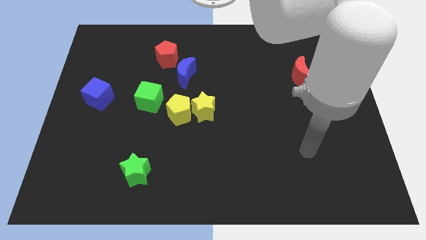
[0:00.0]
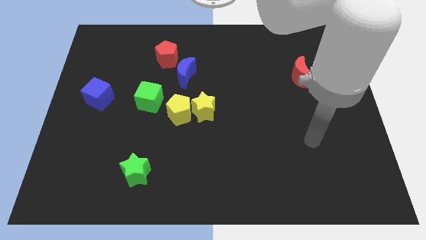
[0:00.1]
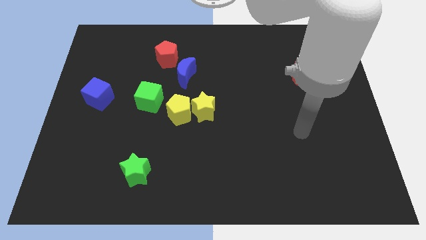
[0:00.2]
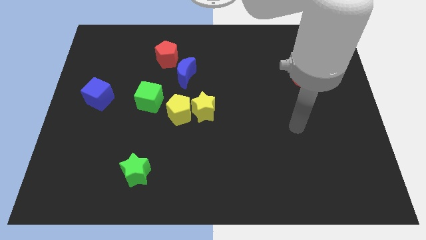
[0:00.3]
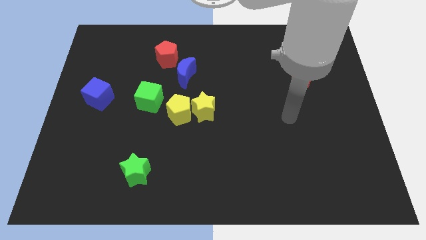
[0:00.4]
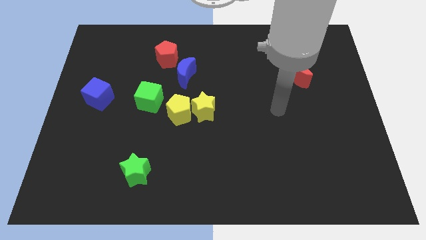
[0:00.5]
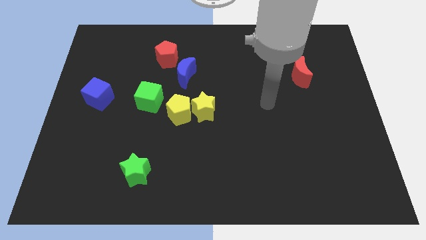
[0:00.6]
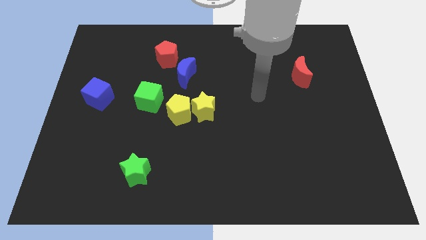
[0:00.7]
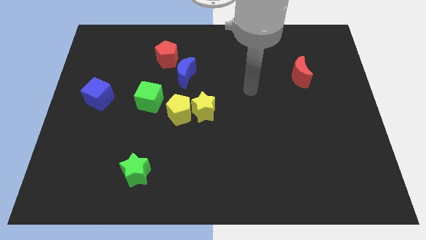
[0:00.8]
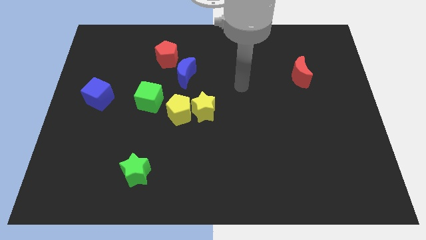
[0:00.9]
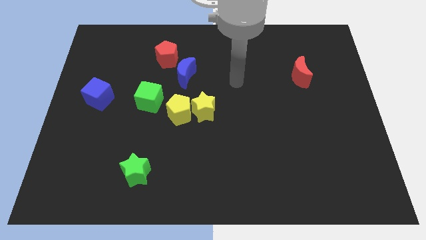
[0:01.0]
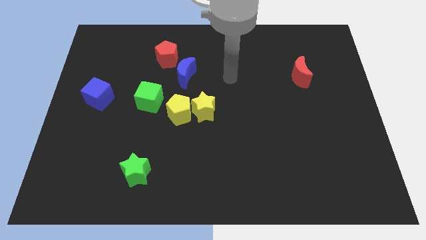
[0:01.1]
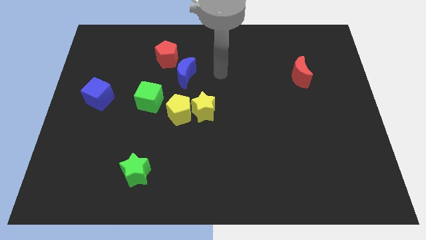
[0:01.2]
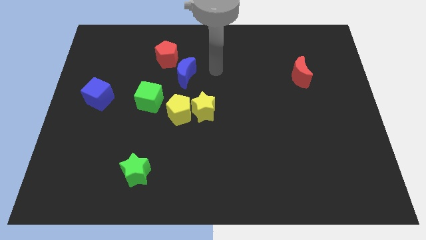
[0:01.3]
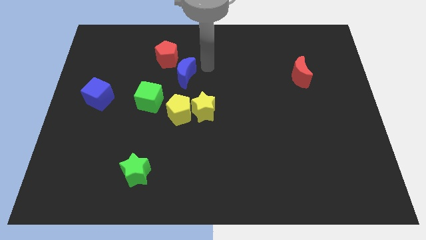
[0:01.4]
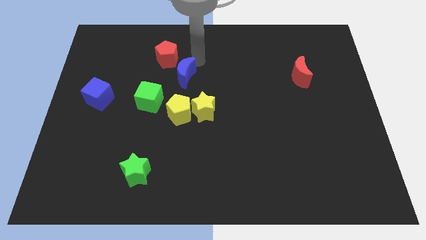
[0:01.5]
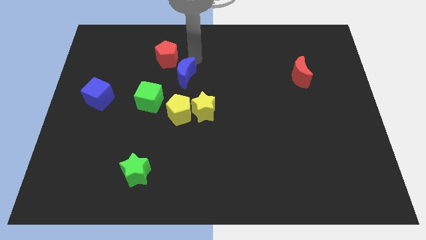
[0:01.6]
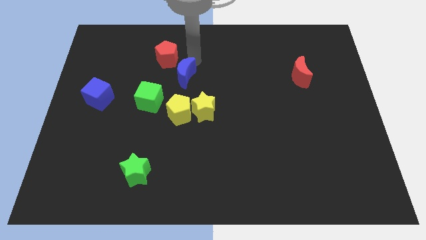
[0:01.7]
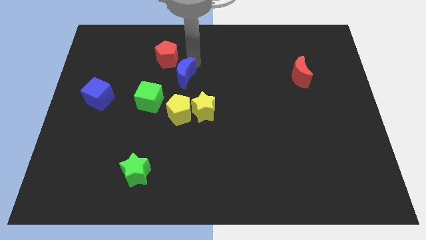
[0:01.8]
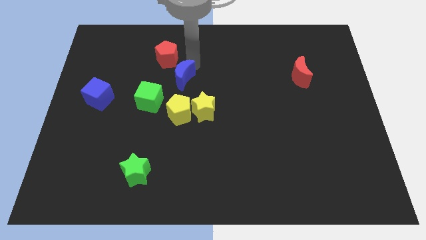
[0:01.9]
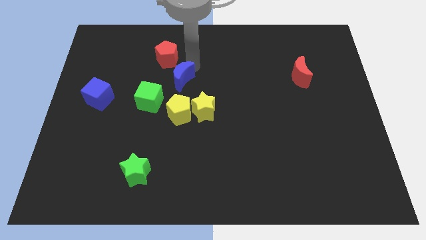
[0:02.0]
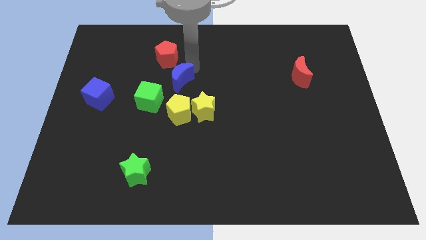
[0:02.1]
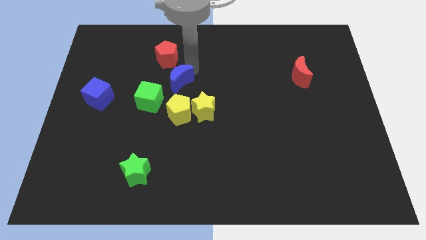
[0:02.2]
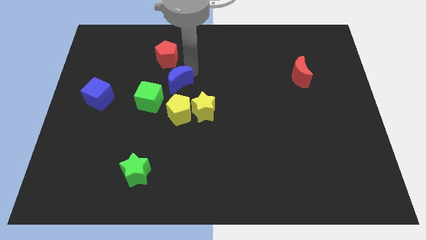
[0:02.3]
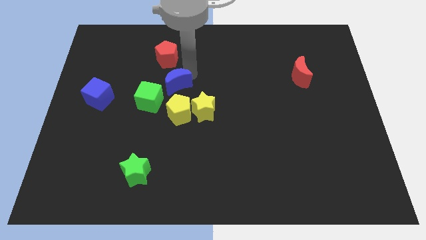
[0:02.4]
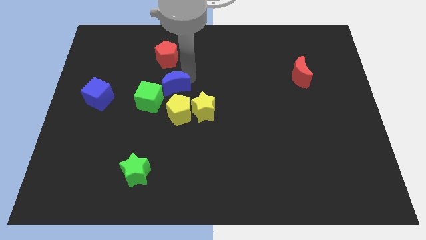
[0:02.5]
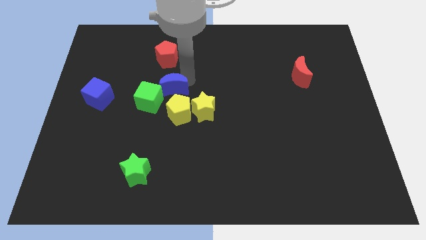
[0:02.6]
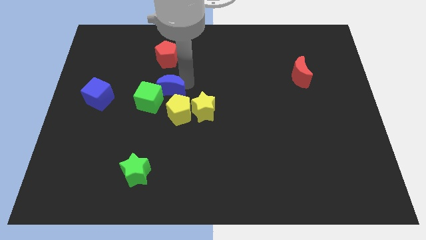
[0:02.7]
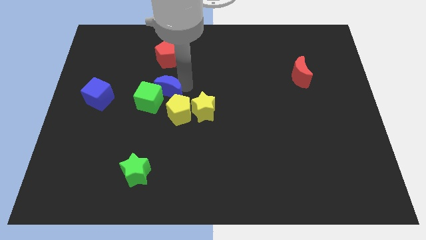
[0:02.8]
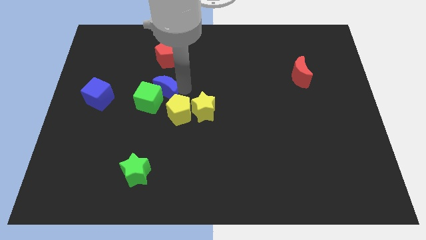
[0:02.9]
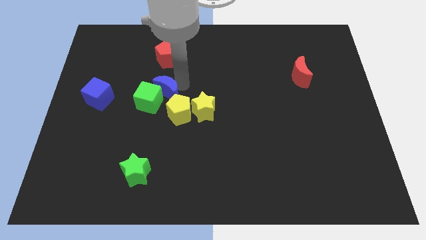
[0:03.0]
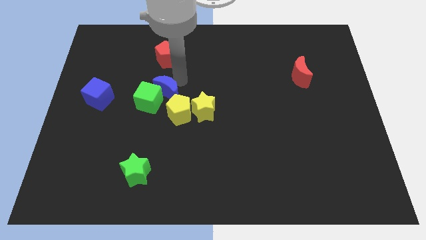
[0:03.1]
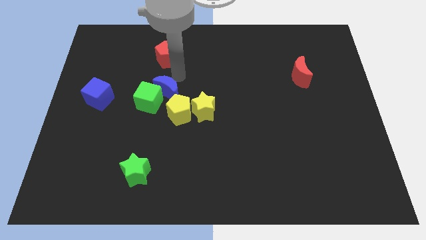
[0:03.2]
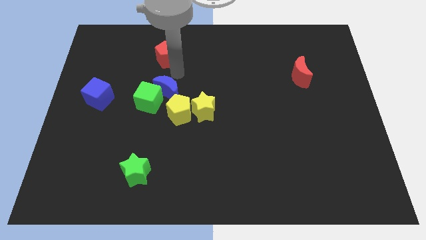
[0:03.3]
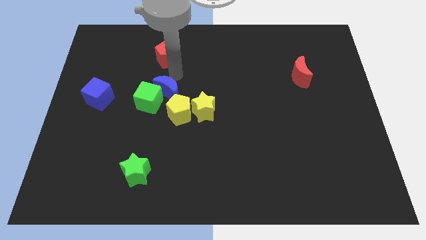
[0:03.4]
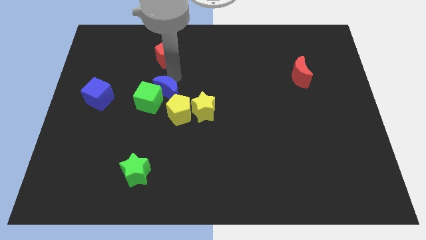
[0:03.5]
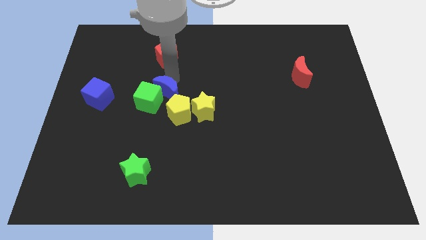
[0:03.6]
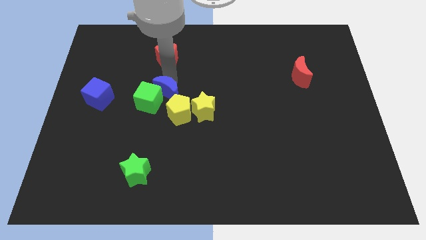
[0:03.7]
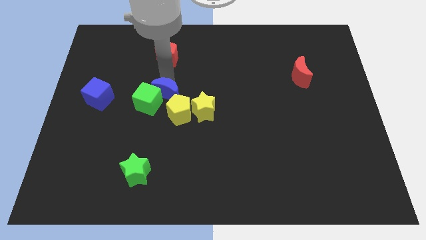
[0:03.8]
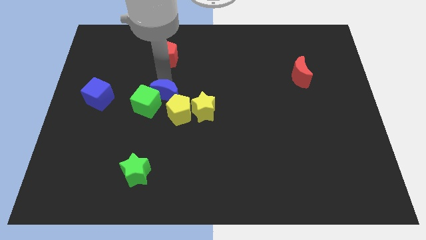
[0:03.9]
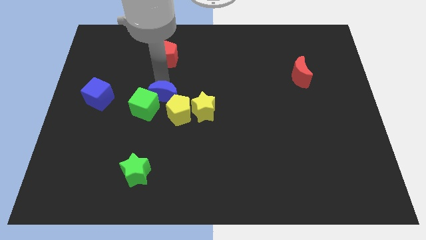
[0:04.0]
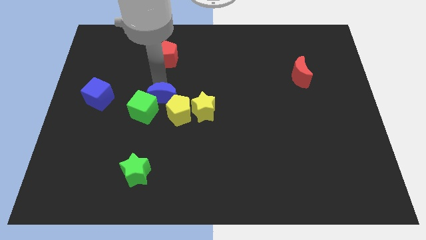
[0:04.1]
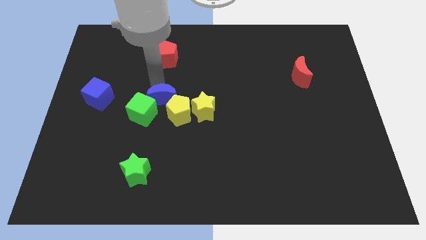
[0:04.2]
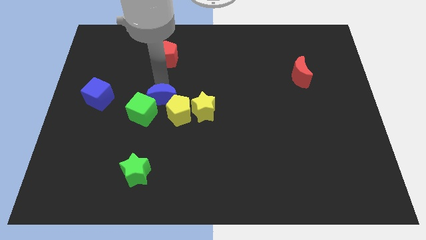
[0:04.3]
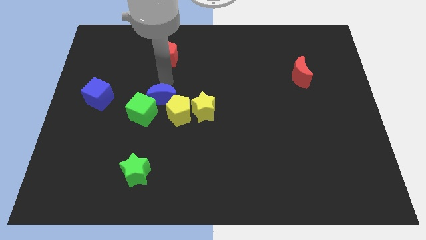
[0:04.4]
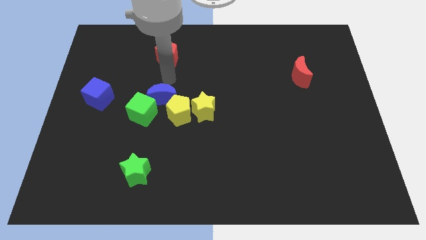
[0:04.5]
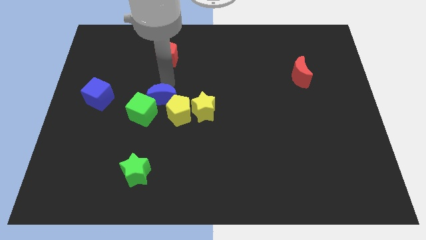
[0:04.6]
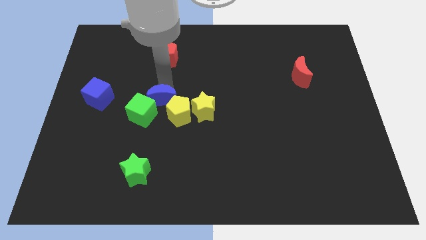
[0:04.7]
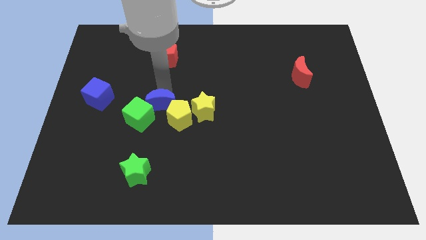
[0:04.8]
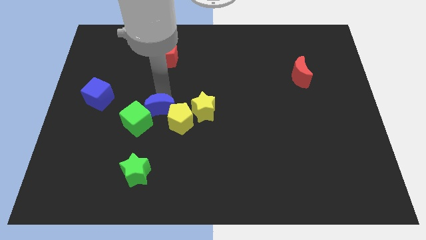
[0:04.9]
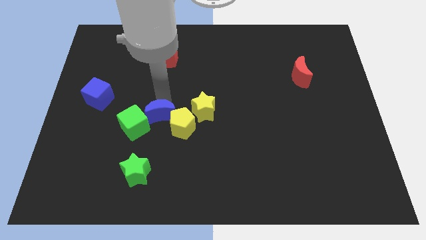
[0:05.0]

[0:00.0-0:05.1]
push the blue moon to the top of the green star

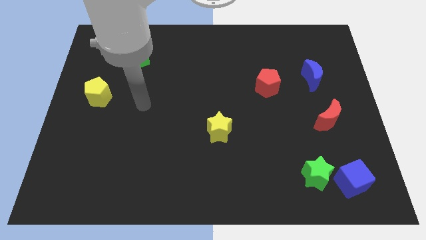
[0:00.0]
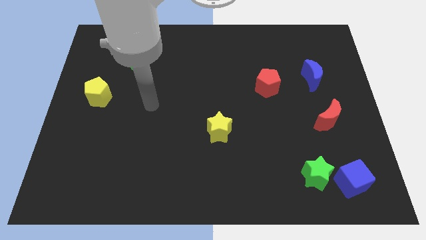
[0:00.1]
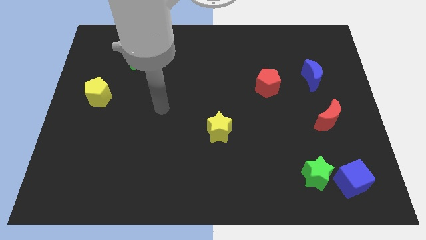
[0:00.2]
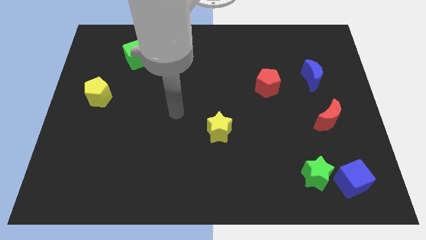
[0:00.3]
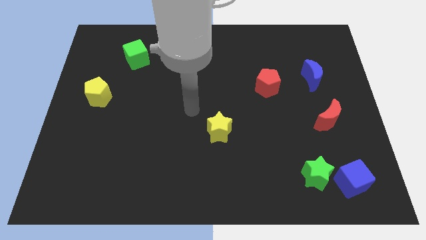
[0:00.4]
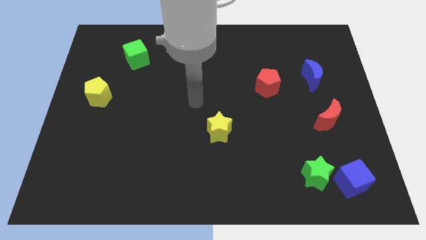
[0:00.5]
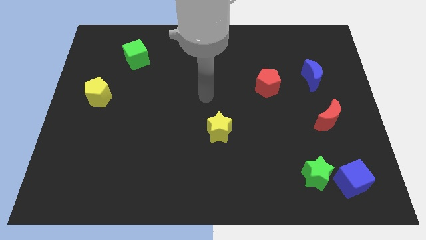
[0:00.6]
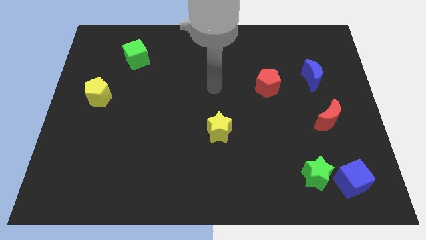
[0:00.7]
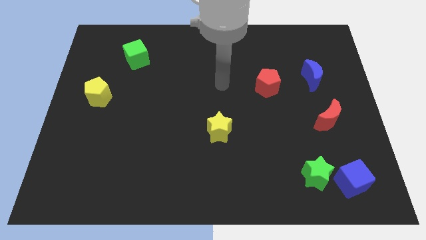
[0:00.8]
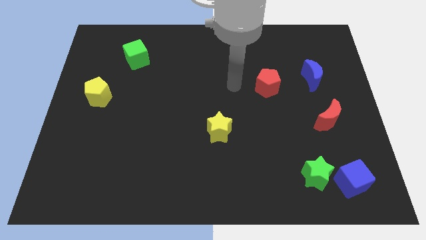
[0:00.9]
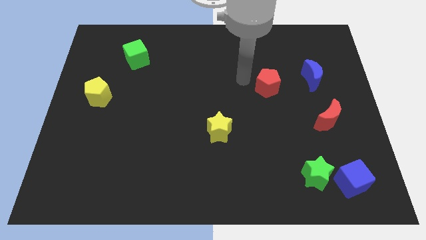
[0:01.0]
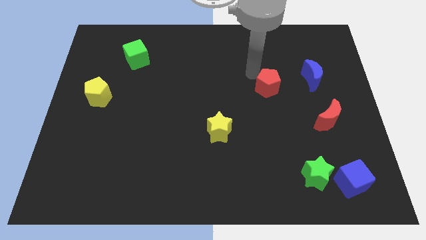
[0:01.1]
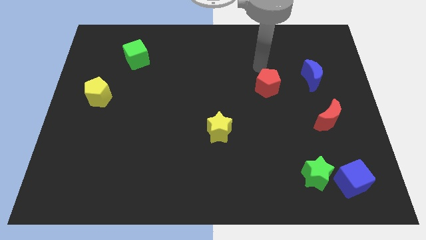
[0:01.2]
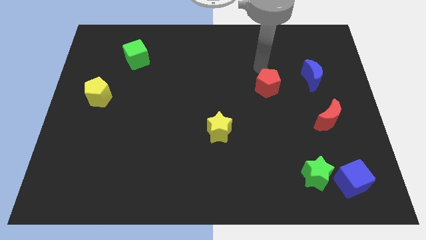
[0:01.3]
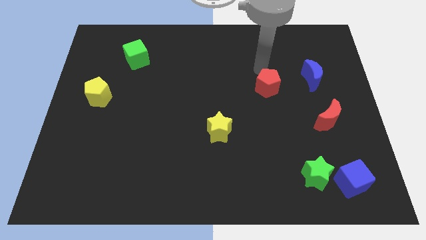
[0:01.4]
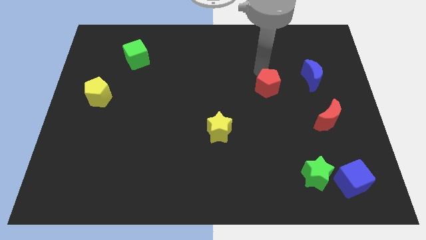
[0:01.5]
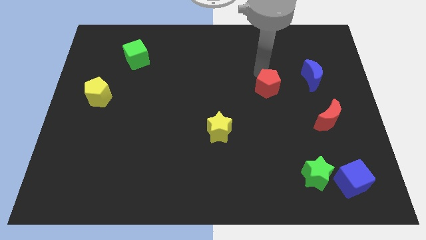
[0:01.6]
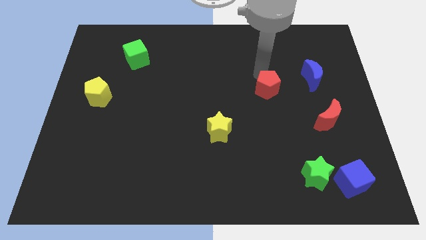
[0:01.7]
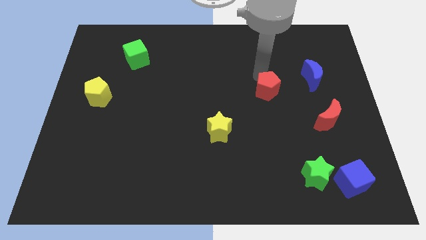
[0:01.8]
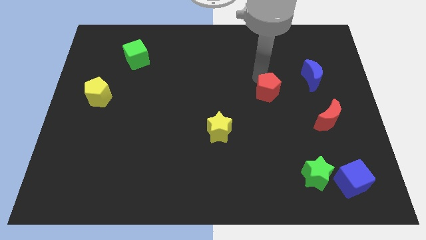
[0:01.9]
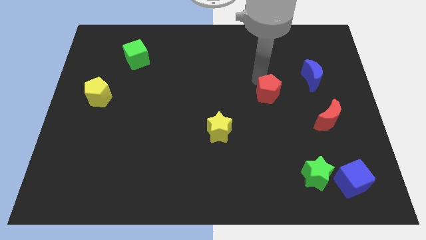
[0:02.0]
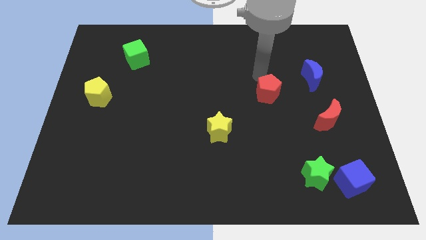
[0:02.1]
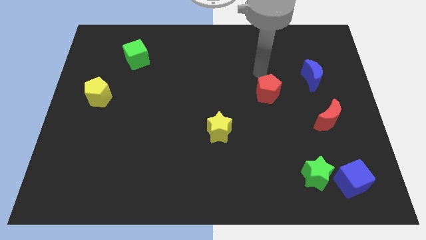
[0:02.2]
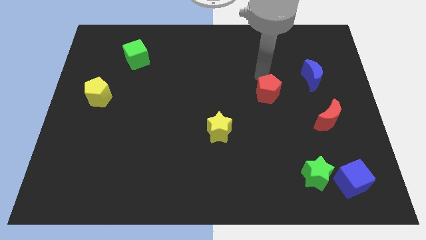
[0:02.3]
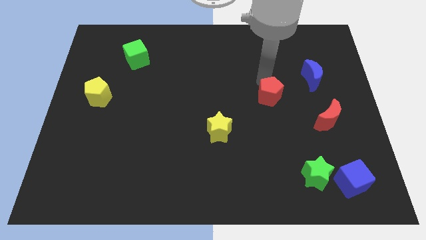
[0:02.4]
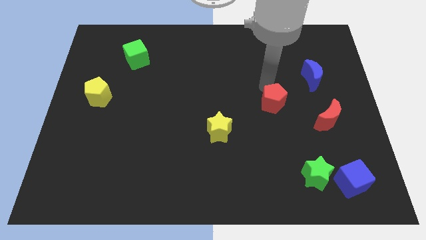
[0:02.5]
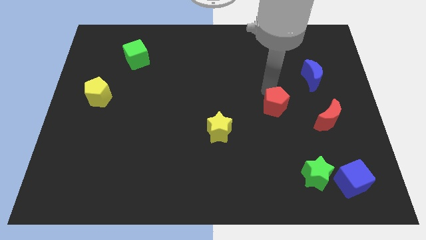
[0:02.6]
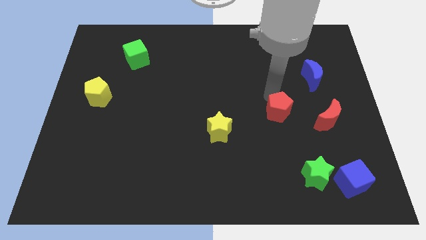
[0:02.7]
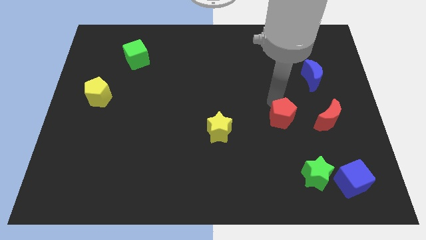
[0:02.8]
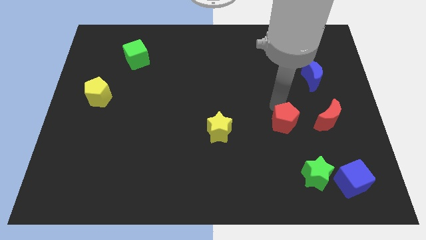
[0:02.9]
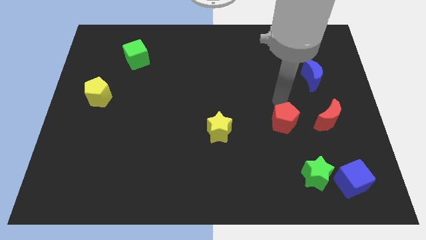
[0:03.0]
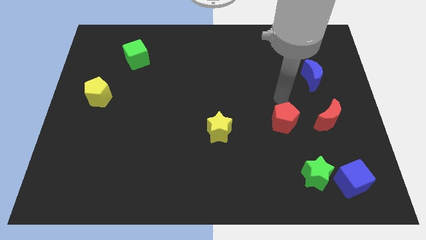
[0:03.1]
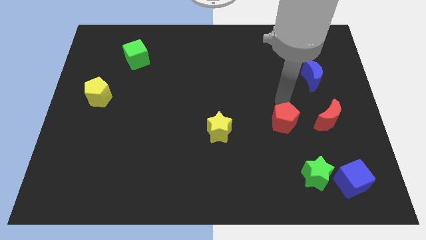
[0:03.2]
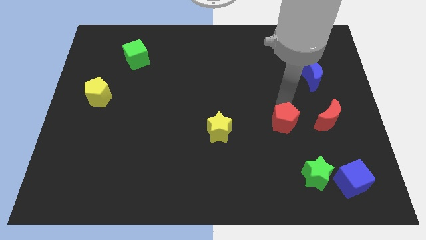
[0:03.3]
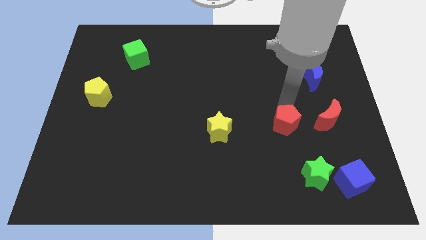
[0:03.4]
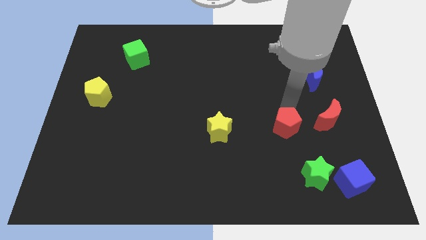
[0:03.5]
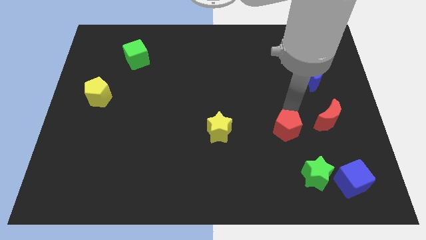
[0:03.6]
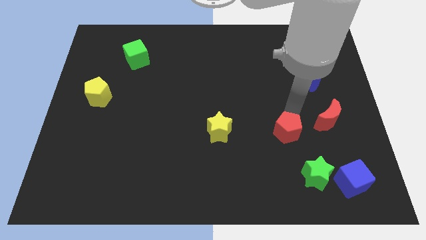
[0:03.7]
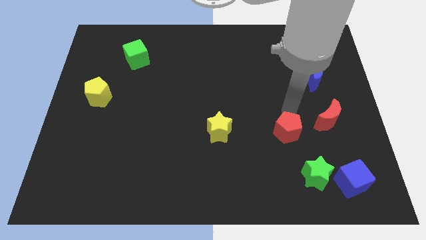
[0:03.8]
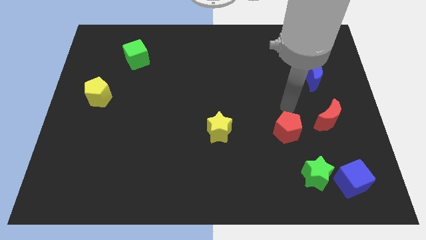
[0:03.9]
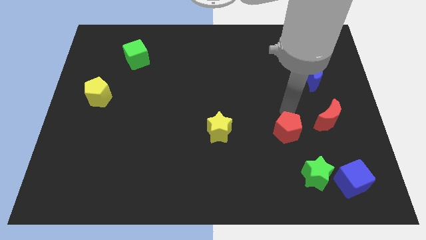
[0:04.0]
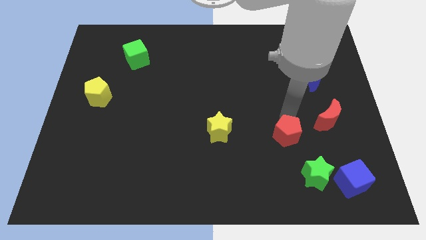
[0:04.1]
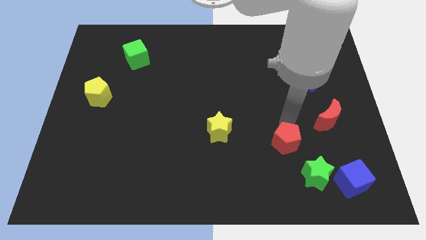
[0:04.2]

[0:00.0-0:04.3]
move the red pentagon diagonally up and to the left of the green star
